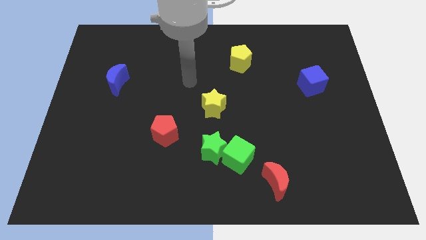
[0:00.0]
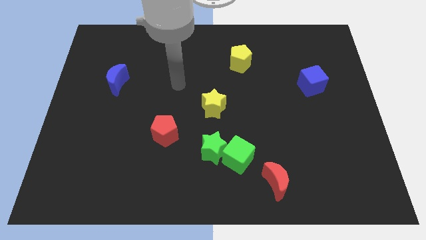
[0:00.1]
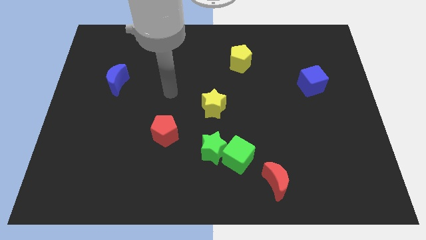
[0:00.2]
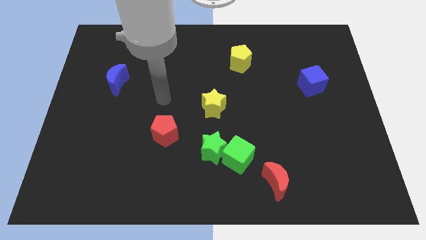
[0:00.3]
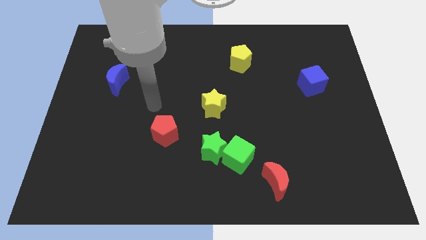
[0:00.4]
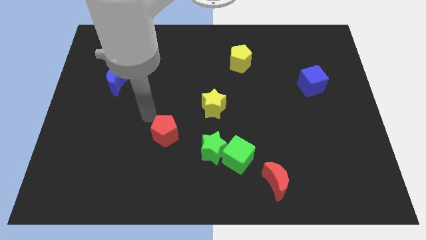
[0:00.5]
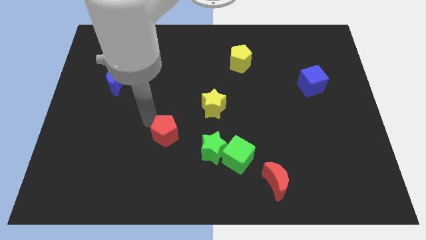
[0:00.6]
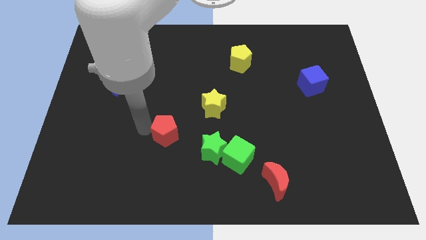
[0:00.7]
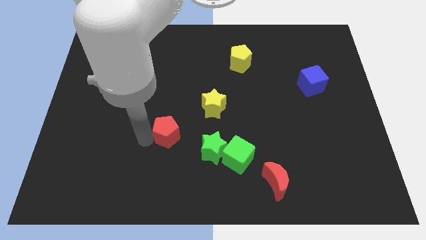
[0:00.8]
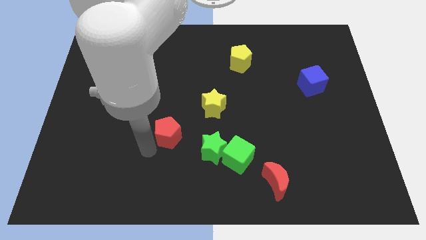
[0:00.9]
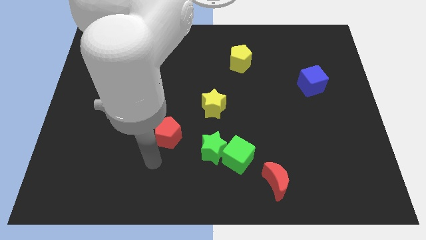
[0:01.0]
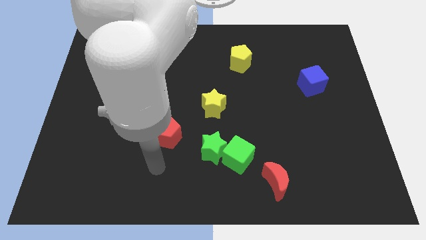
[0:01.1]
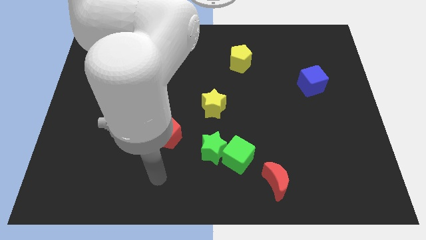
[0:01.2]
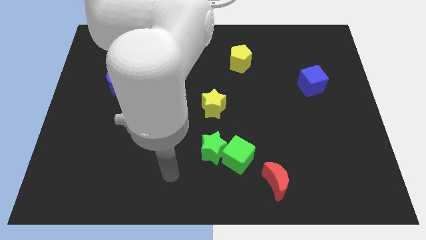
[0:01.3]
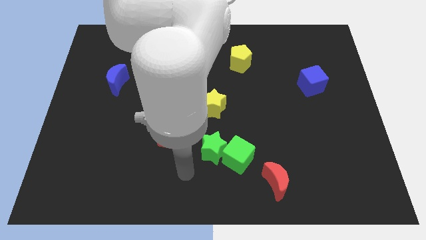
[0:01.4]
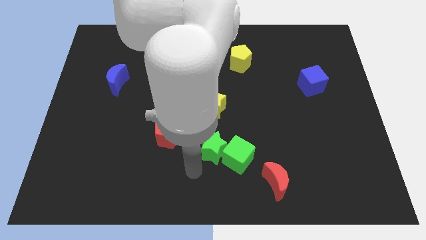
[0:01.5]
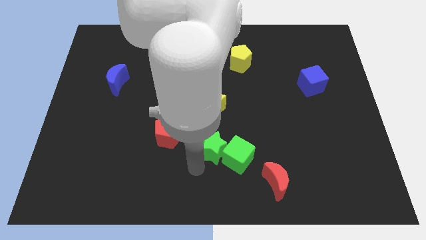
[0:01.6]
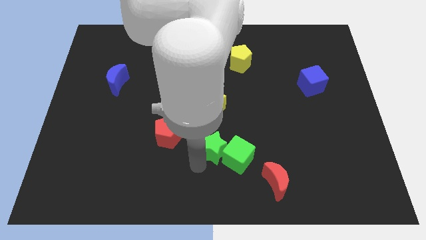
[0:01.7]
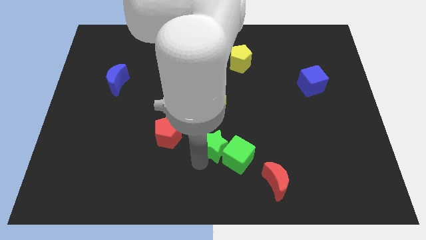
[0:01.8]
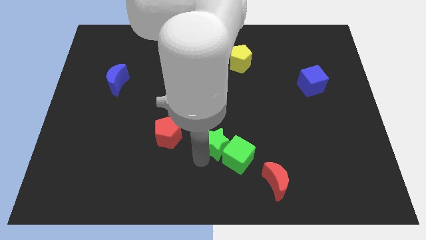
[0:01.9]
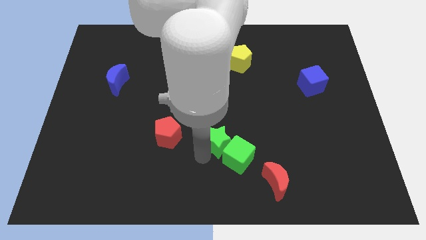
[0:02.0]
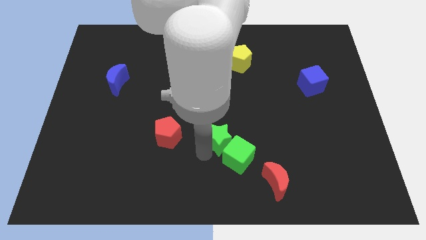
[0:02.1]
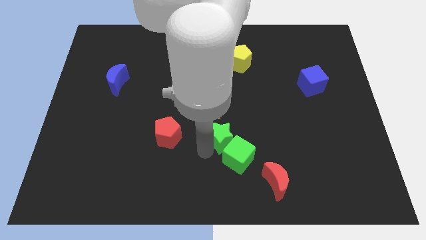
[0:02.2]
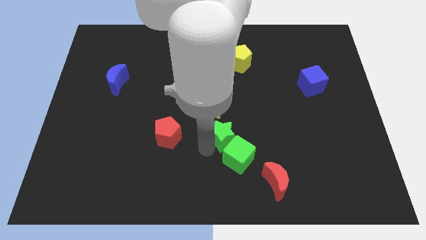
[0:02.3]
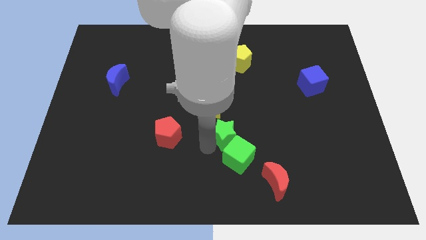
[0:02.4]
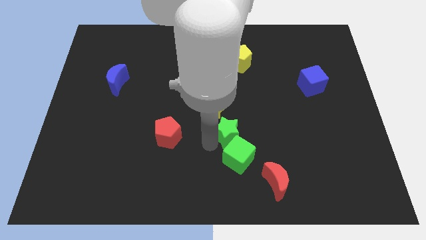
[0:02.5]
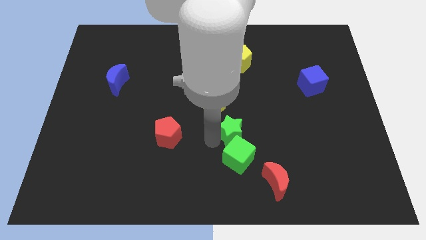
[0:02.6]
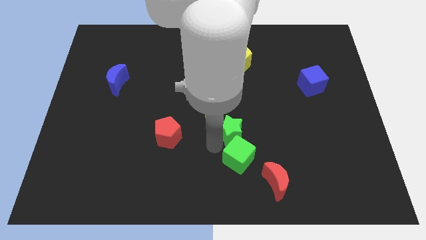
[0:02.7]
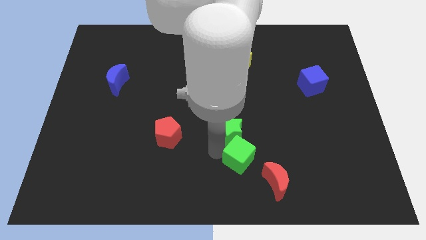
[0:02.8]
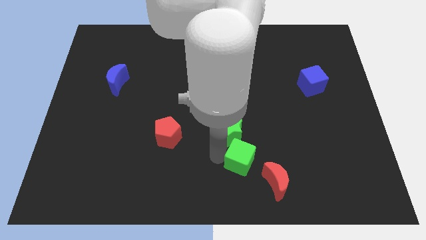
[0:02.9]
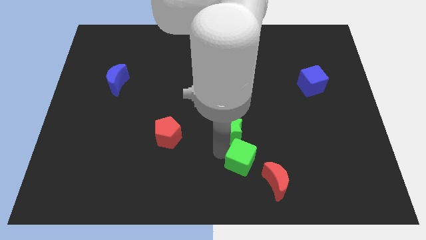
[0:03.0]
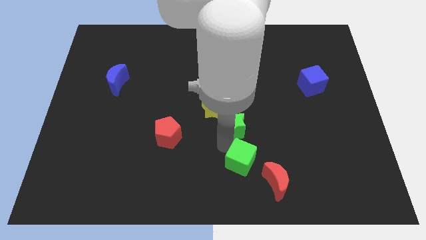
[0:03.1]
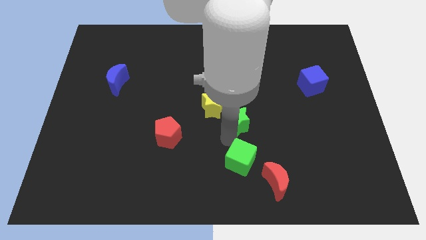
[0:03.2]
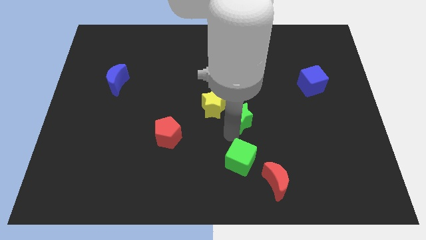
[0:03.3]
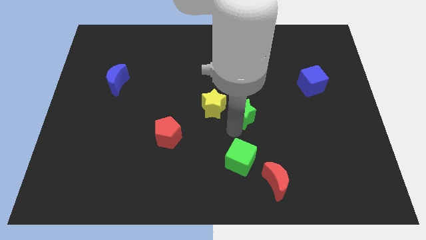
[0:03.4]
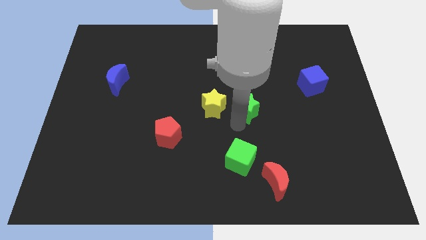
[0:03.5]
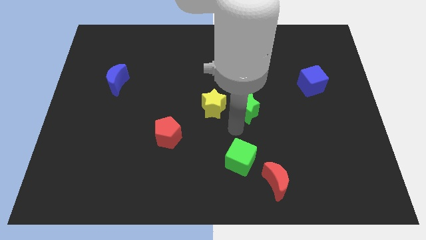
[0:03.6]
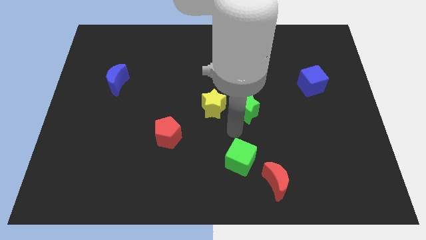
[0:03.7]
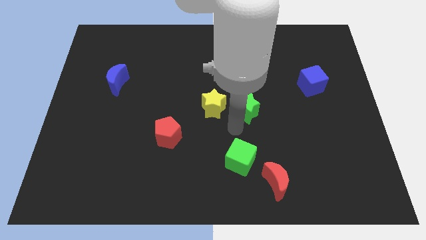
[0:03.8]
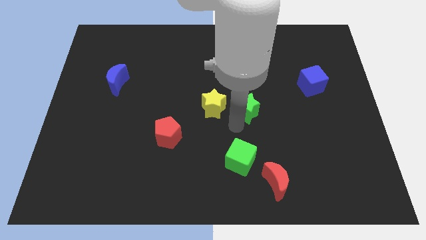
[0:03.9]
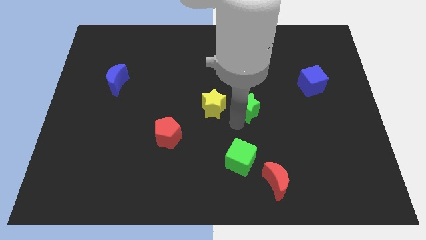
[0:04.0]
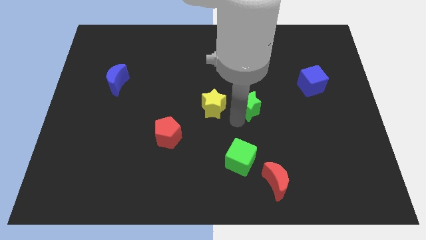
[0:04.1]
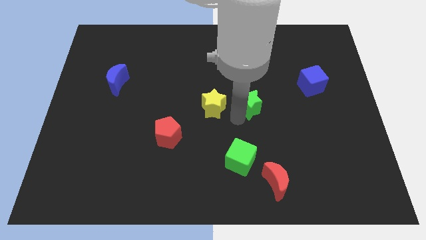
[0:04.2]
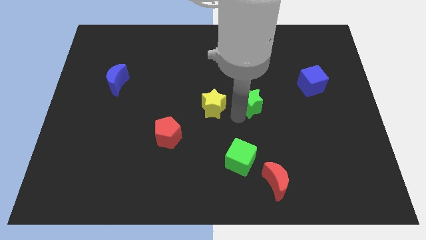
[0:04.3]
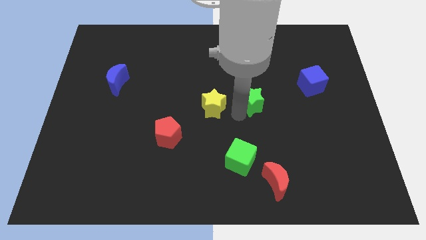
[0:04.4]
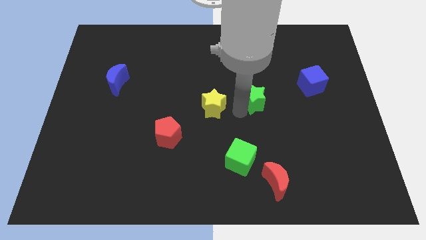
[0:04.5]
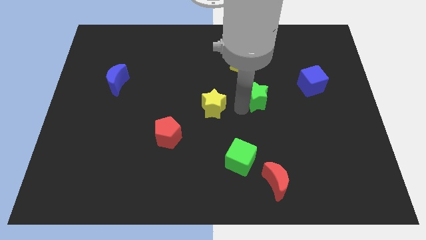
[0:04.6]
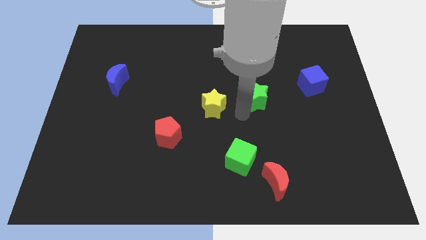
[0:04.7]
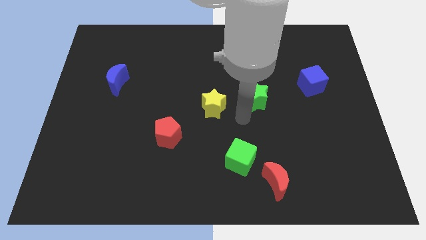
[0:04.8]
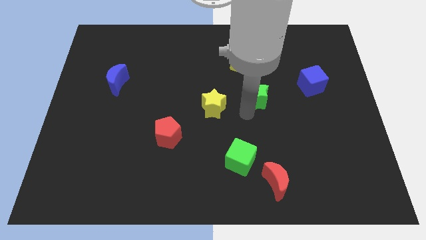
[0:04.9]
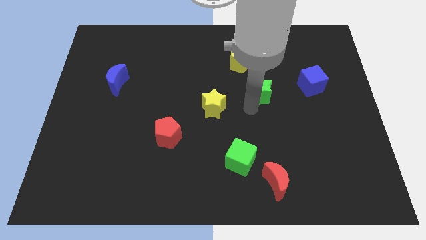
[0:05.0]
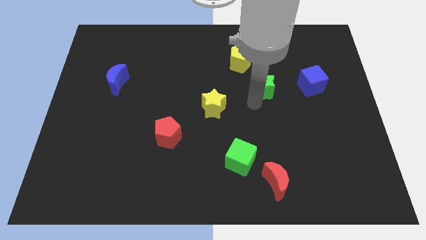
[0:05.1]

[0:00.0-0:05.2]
slide the green star up and then right

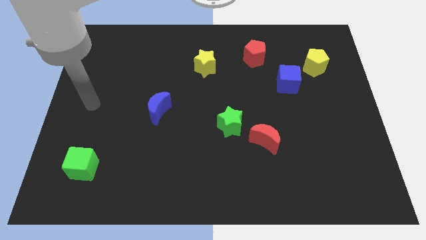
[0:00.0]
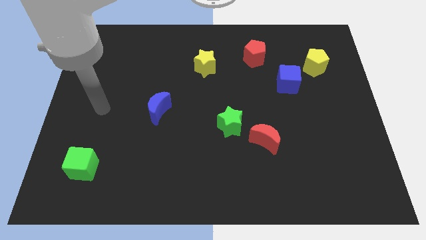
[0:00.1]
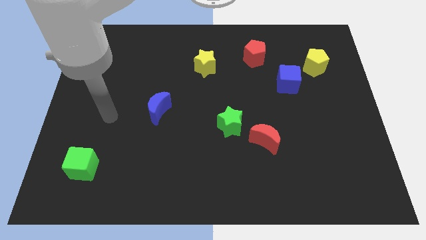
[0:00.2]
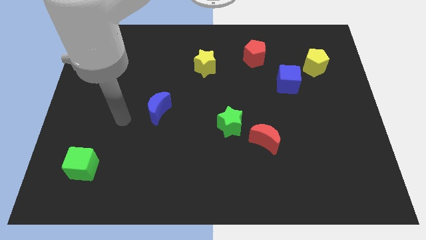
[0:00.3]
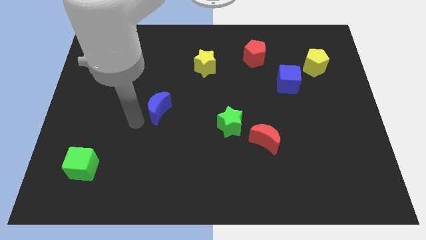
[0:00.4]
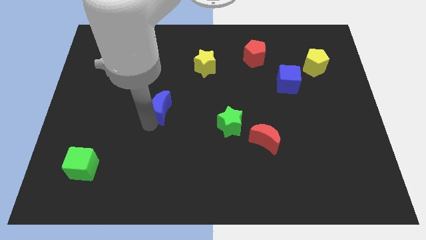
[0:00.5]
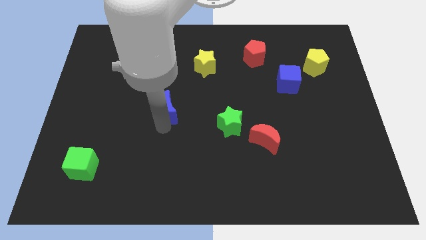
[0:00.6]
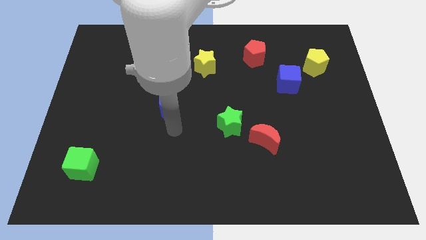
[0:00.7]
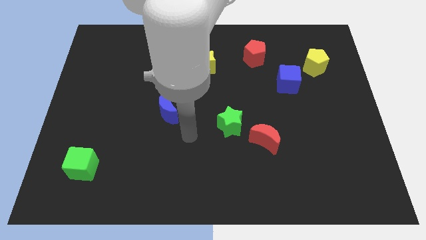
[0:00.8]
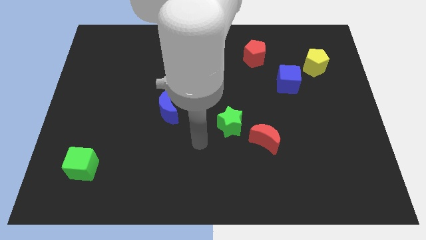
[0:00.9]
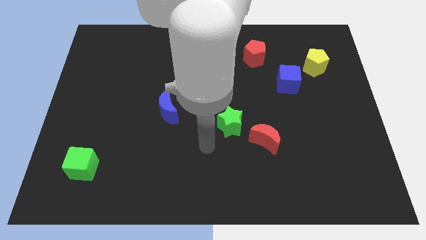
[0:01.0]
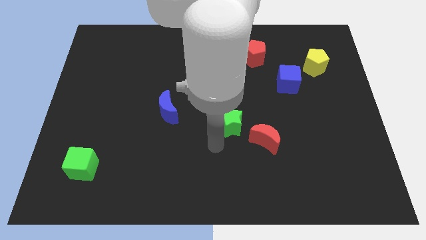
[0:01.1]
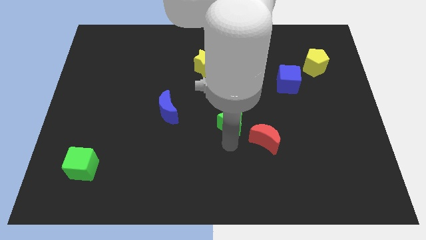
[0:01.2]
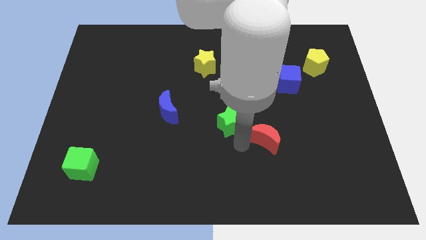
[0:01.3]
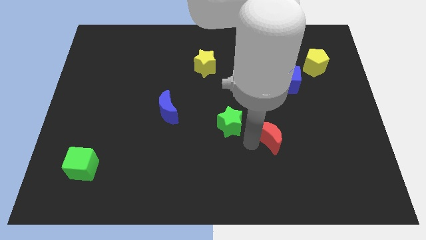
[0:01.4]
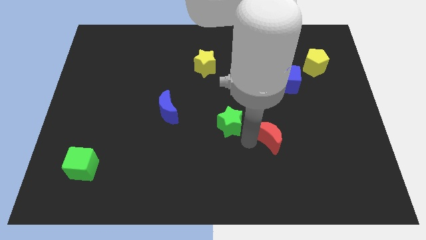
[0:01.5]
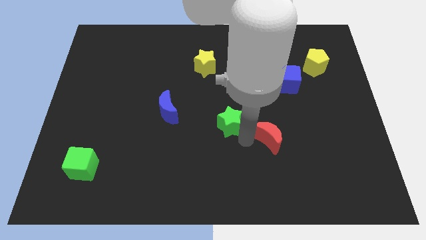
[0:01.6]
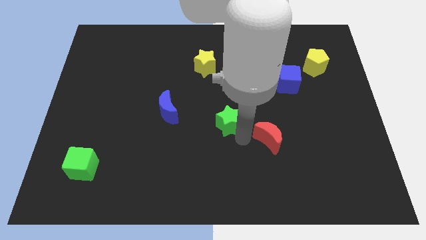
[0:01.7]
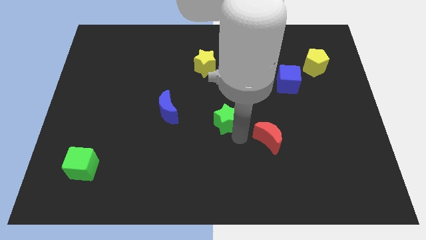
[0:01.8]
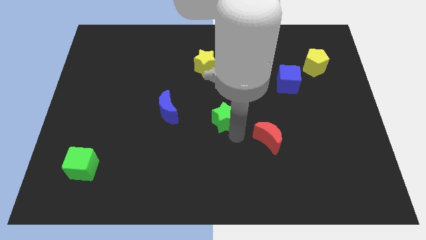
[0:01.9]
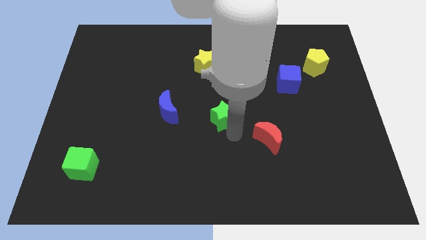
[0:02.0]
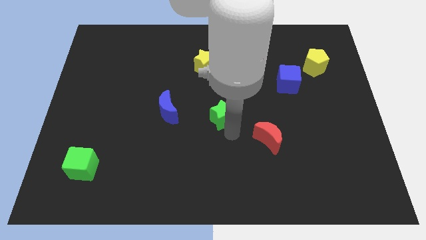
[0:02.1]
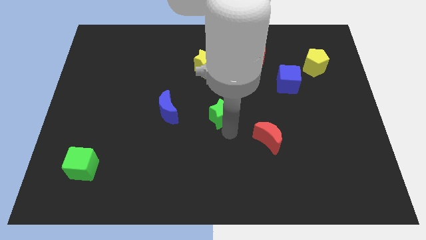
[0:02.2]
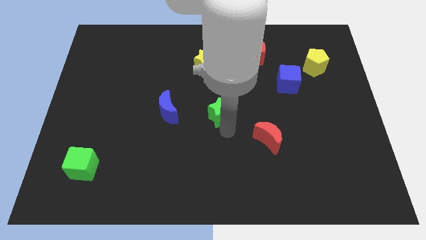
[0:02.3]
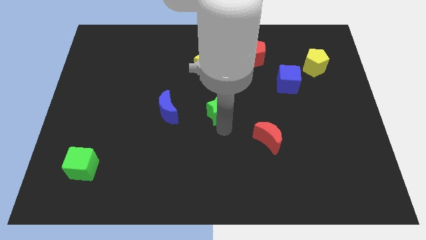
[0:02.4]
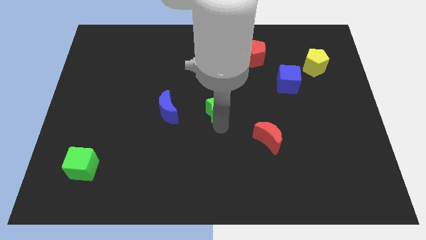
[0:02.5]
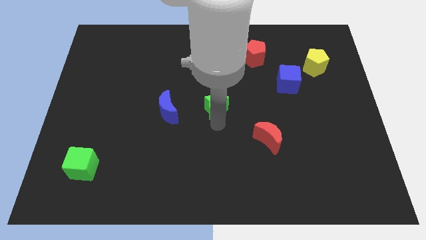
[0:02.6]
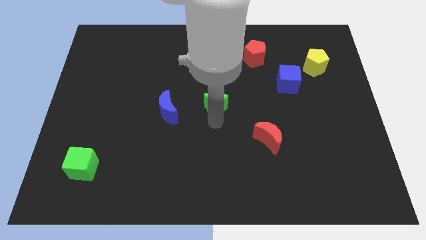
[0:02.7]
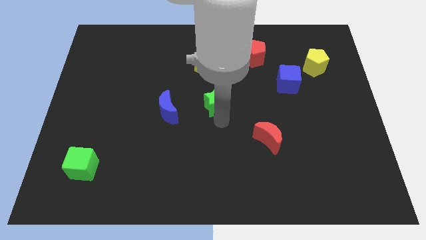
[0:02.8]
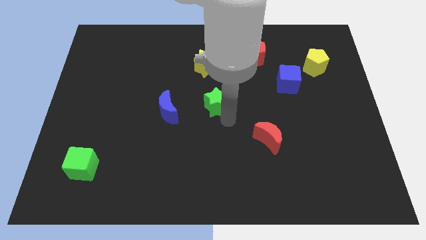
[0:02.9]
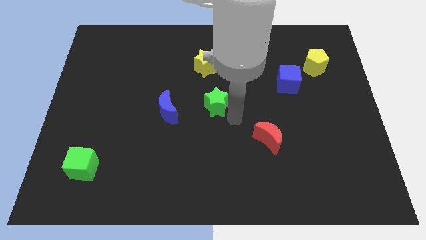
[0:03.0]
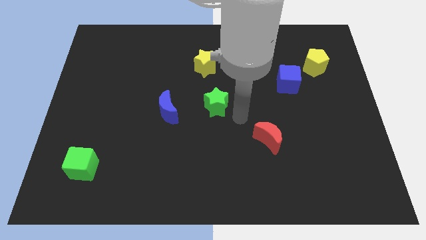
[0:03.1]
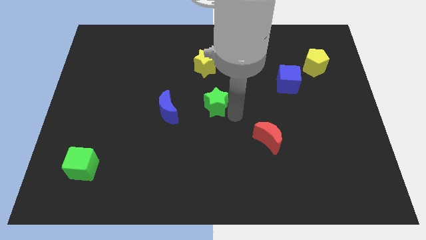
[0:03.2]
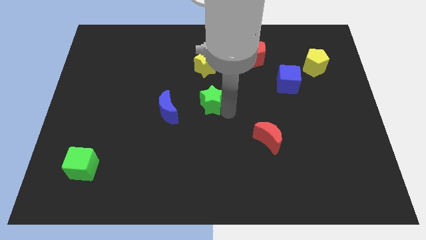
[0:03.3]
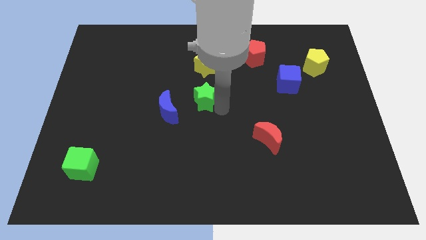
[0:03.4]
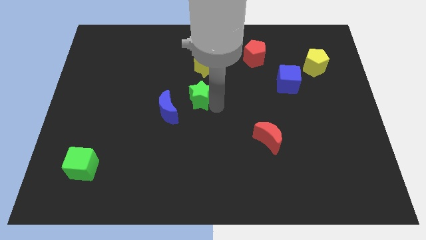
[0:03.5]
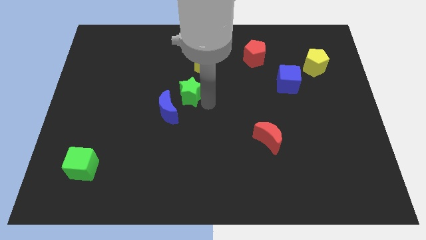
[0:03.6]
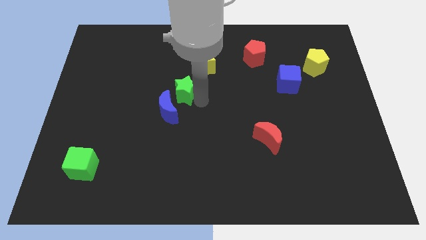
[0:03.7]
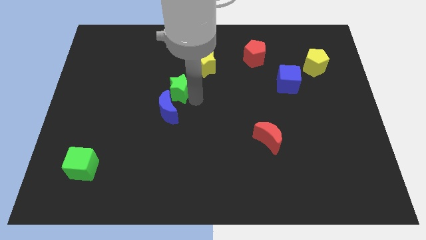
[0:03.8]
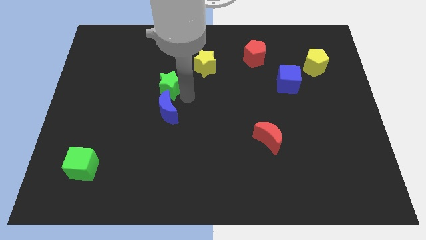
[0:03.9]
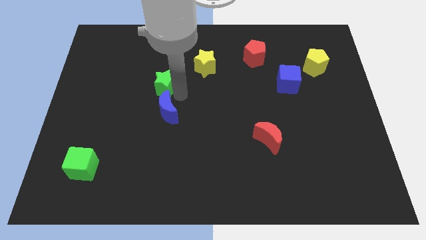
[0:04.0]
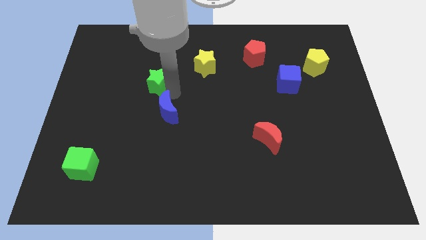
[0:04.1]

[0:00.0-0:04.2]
move the green star upwards and left diagonally
